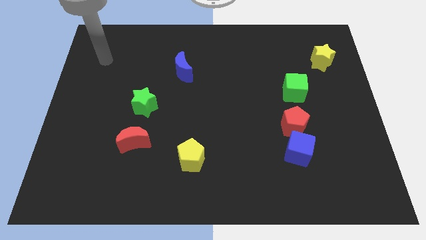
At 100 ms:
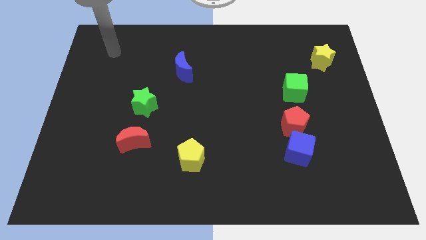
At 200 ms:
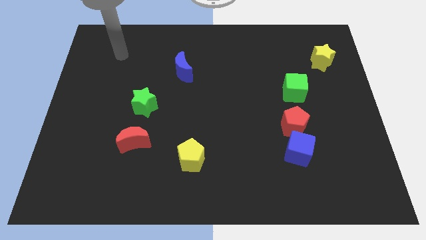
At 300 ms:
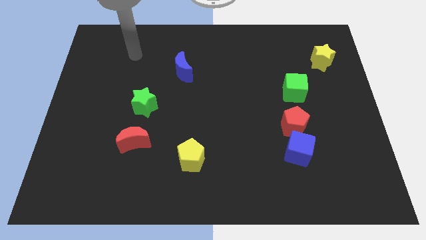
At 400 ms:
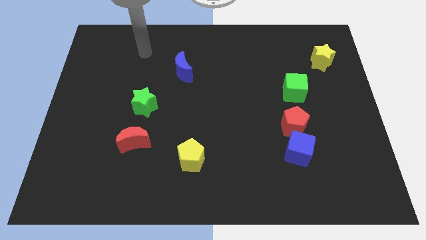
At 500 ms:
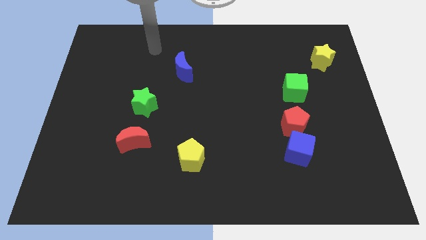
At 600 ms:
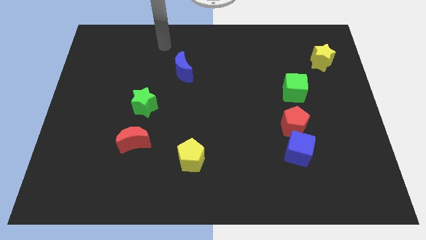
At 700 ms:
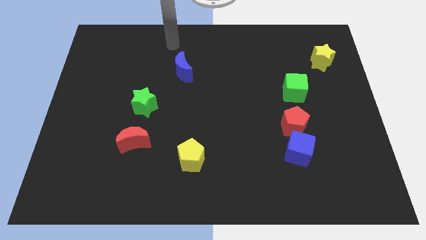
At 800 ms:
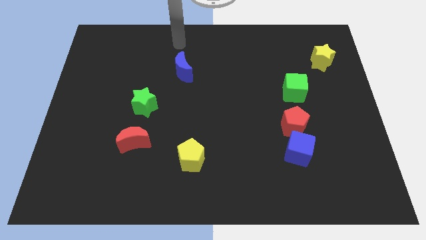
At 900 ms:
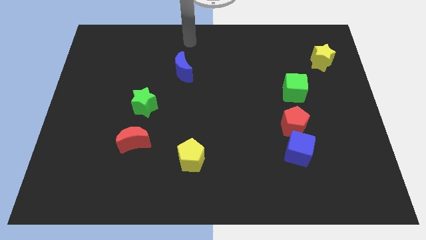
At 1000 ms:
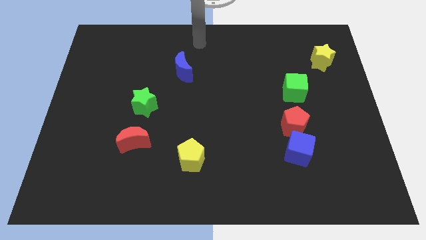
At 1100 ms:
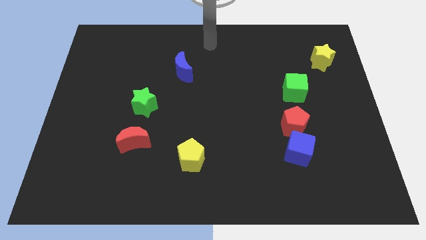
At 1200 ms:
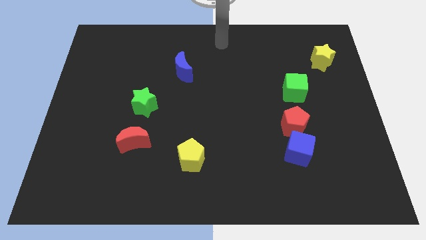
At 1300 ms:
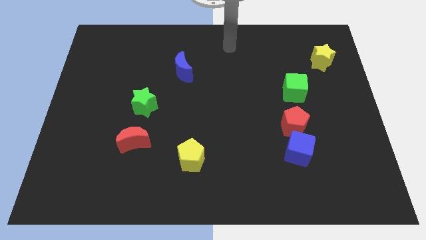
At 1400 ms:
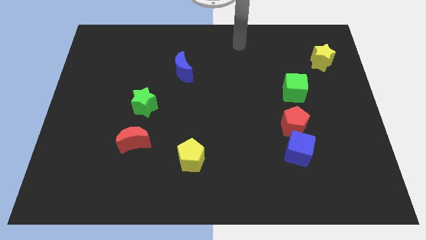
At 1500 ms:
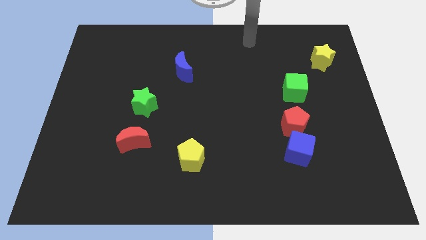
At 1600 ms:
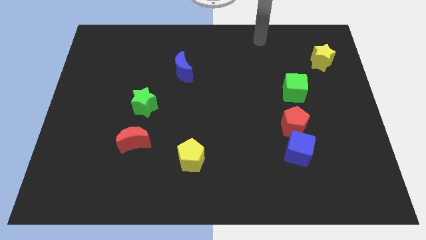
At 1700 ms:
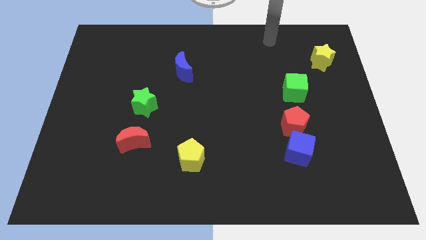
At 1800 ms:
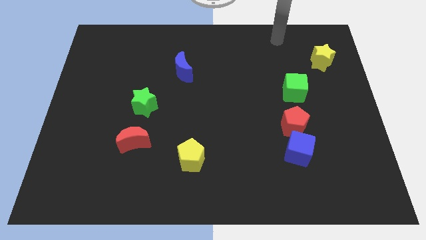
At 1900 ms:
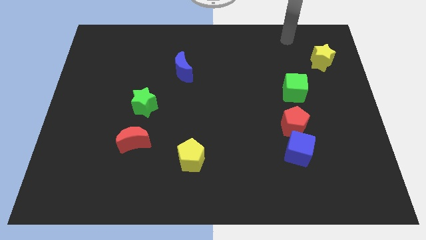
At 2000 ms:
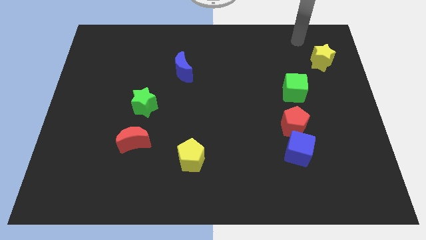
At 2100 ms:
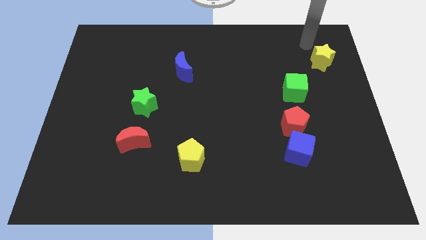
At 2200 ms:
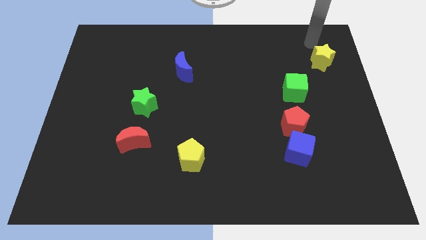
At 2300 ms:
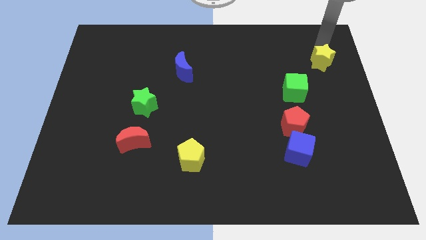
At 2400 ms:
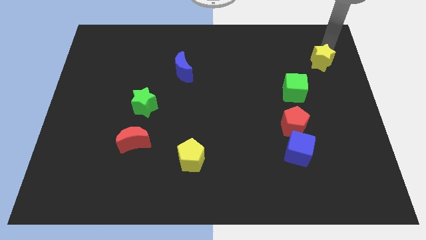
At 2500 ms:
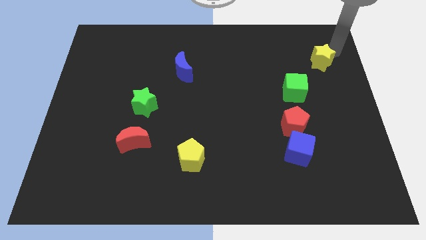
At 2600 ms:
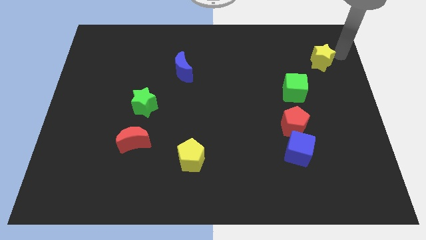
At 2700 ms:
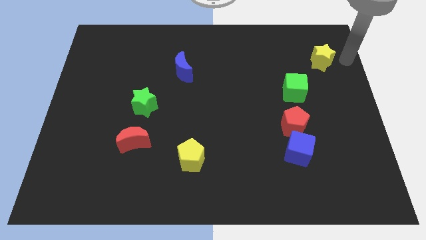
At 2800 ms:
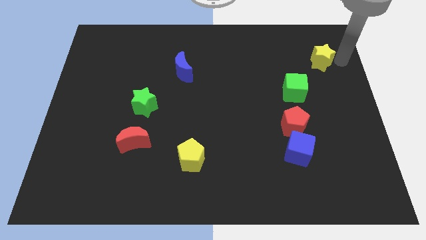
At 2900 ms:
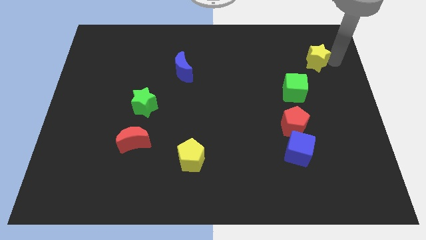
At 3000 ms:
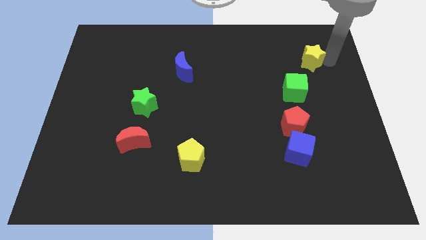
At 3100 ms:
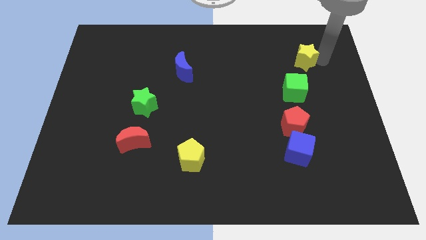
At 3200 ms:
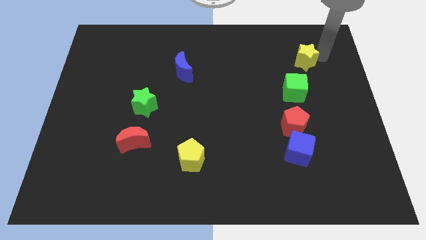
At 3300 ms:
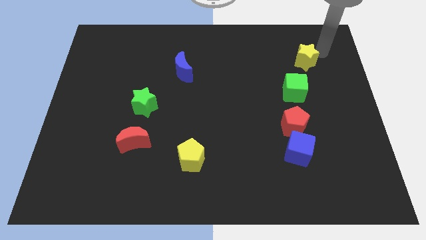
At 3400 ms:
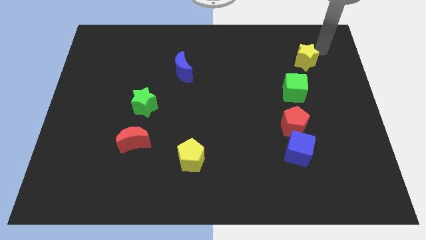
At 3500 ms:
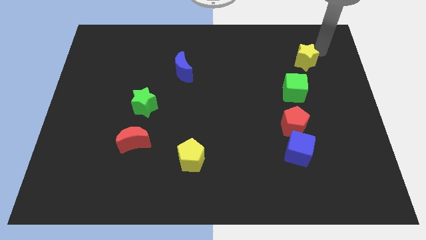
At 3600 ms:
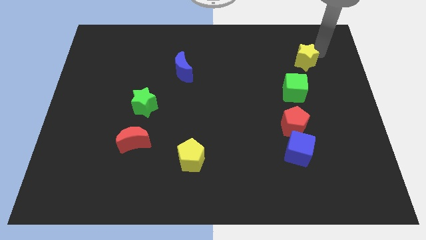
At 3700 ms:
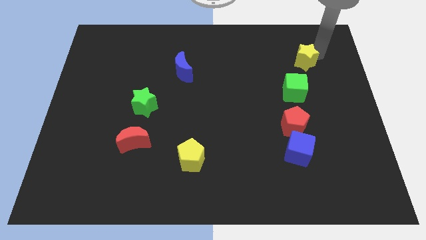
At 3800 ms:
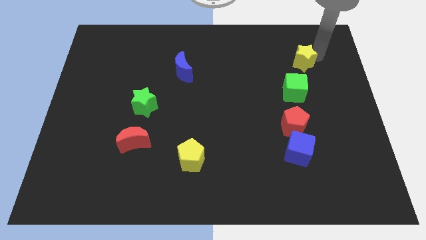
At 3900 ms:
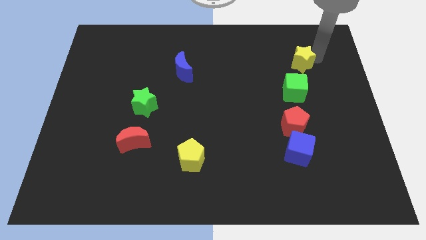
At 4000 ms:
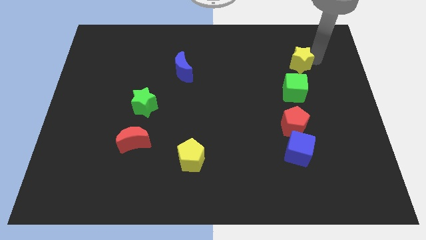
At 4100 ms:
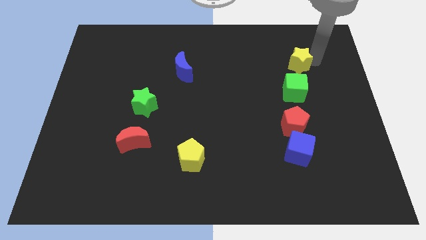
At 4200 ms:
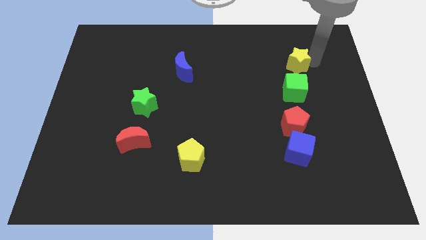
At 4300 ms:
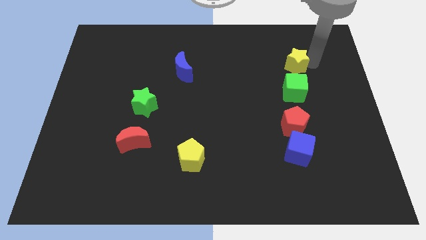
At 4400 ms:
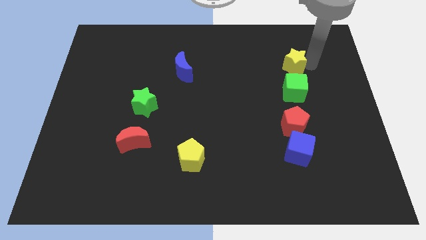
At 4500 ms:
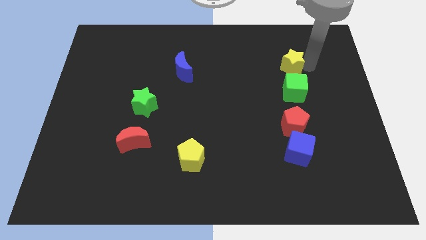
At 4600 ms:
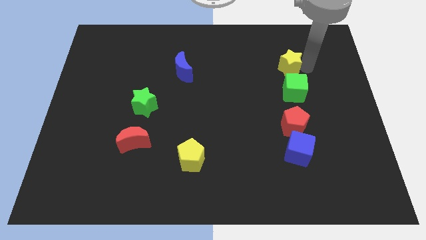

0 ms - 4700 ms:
slide the yellow star down and left diagonally a bit

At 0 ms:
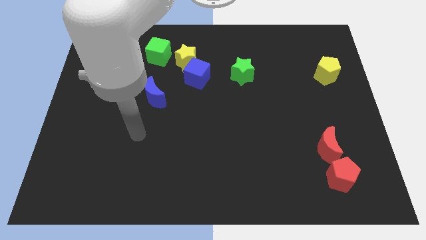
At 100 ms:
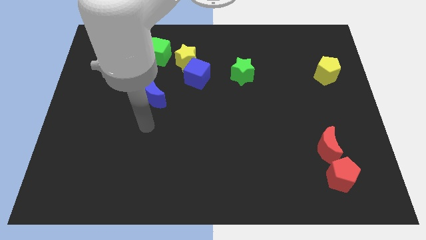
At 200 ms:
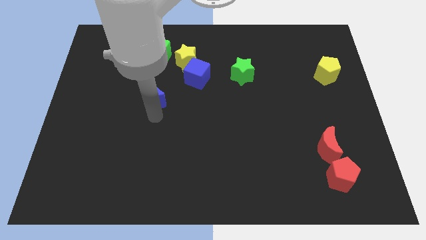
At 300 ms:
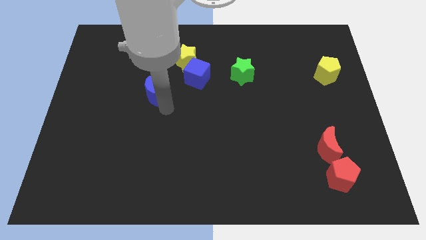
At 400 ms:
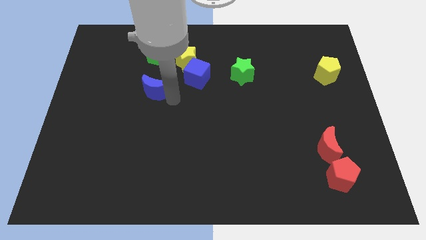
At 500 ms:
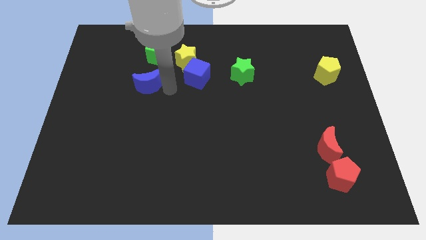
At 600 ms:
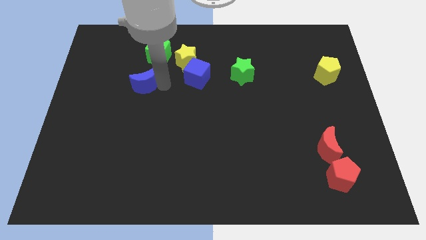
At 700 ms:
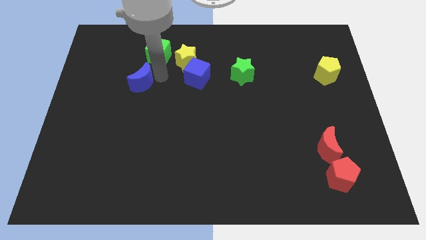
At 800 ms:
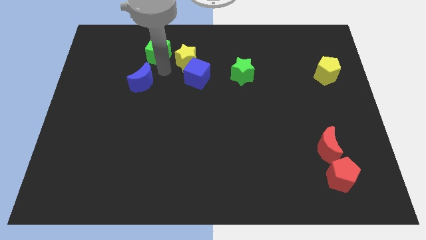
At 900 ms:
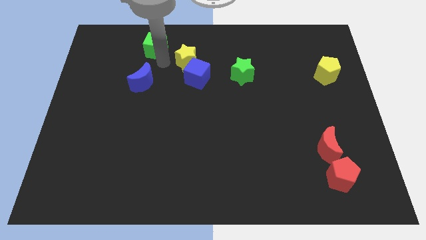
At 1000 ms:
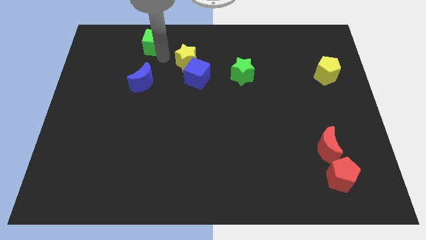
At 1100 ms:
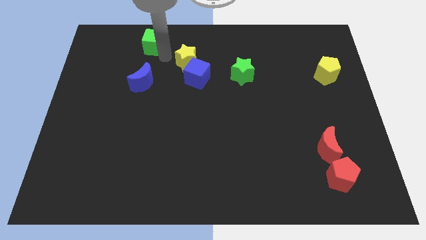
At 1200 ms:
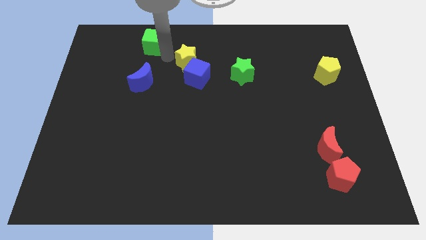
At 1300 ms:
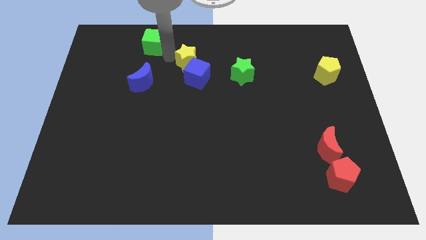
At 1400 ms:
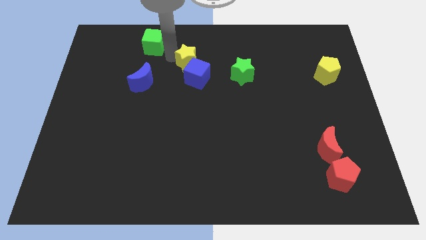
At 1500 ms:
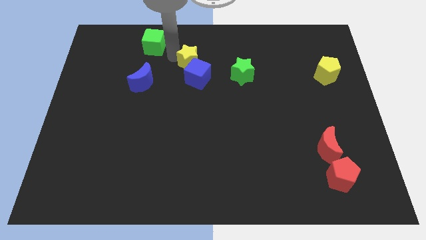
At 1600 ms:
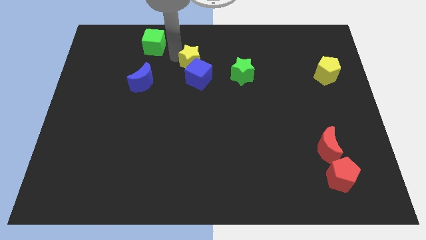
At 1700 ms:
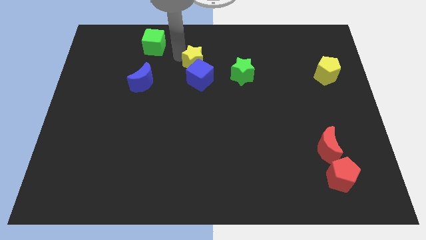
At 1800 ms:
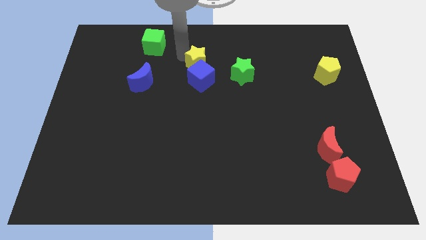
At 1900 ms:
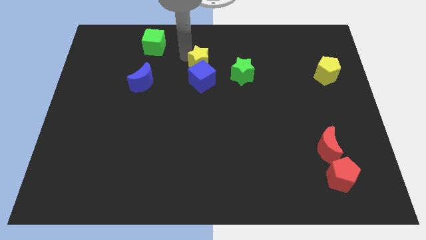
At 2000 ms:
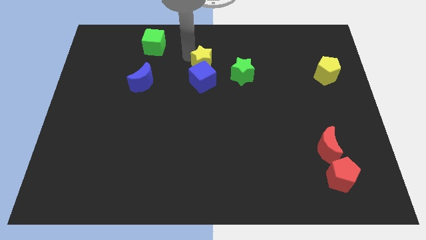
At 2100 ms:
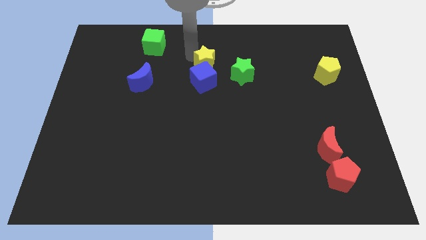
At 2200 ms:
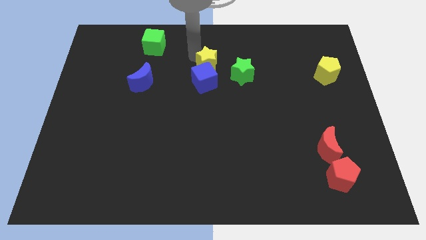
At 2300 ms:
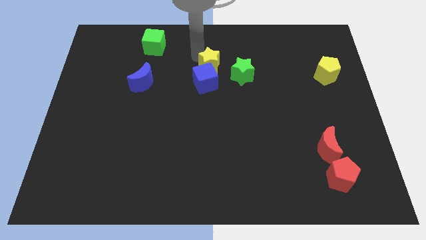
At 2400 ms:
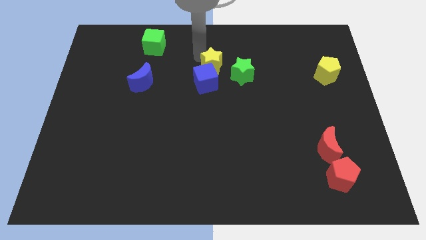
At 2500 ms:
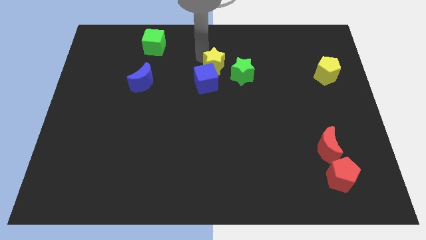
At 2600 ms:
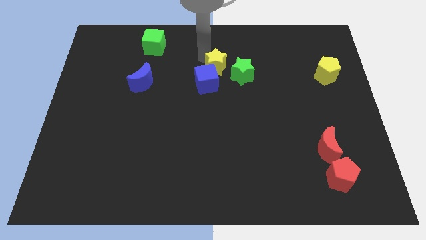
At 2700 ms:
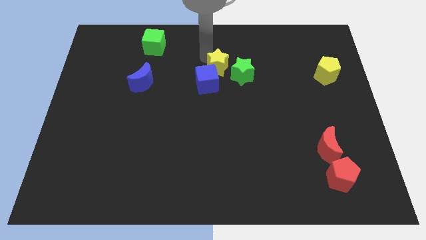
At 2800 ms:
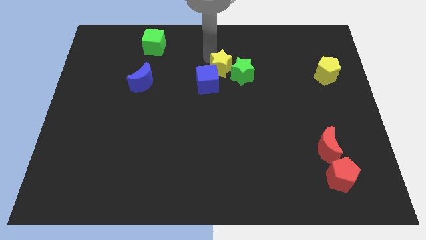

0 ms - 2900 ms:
push the yellow star a bit down and to the right

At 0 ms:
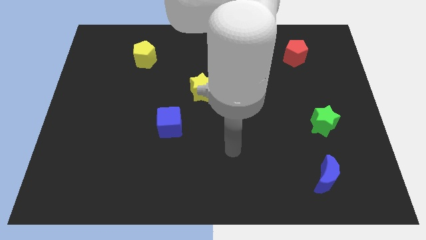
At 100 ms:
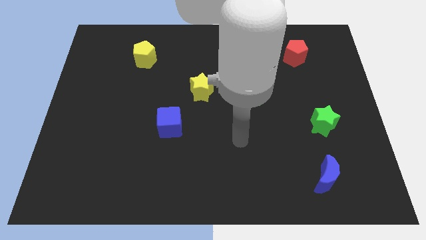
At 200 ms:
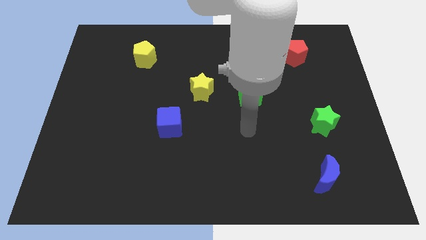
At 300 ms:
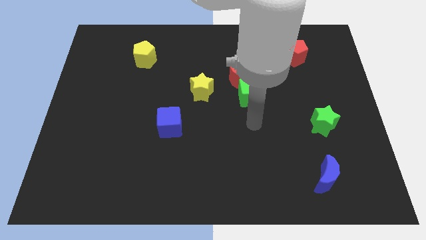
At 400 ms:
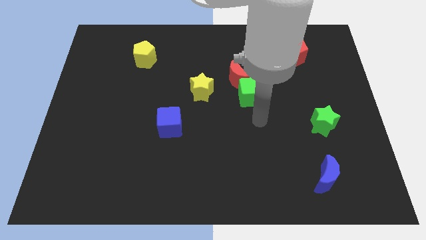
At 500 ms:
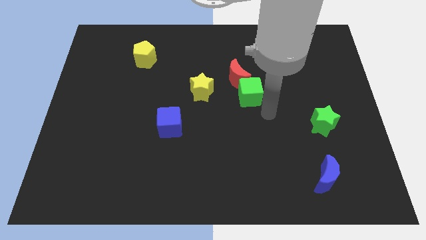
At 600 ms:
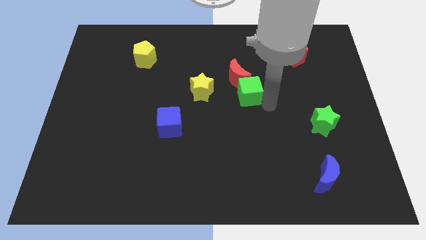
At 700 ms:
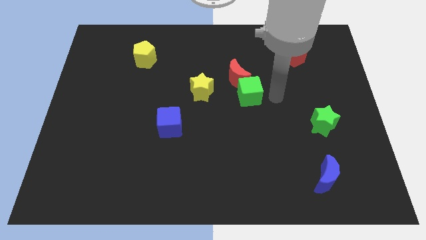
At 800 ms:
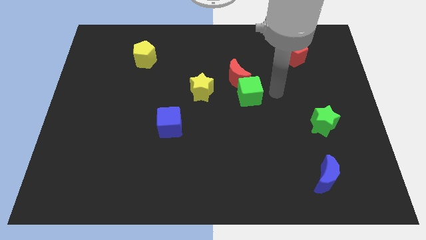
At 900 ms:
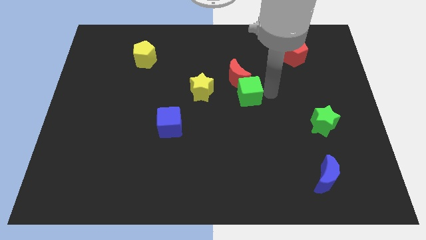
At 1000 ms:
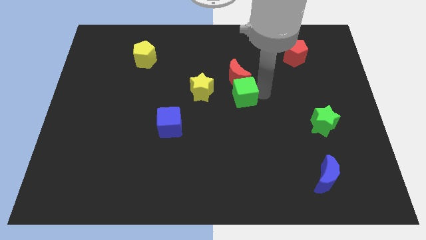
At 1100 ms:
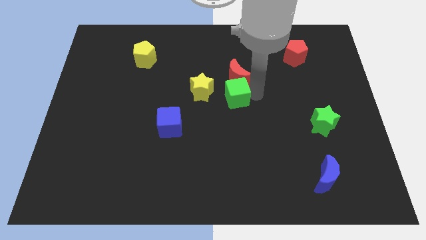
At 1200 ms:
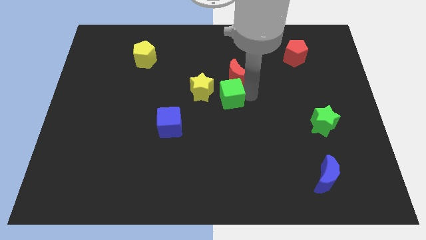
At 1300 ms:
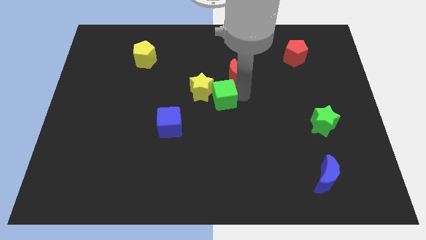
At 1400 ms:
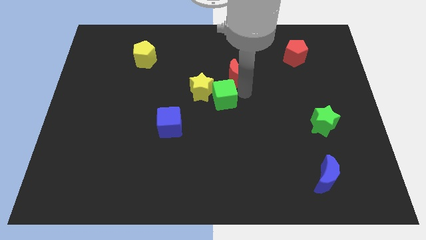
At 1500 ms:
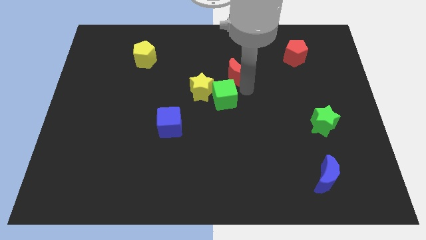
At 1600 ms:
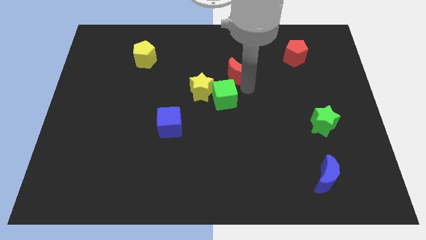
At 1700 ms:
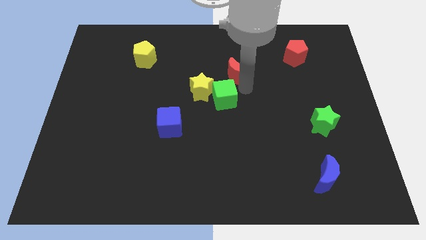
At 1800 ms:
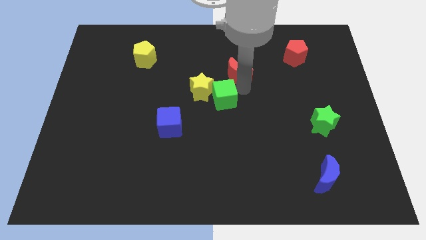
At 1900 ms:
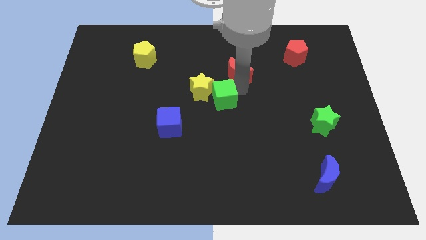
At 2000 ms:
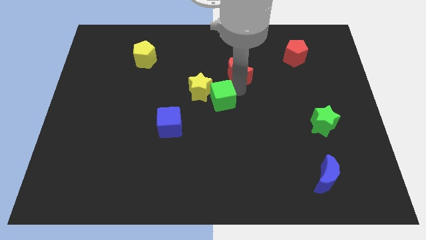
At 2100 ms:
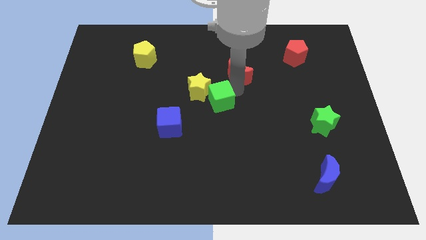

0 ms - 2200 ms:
slide the green cube a bit left
